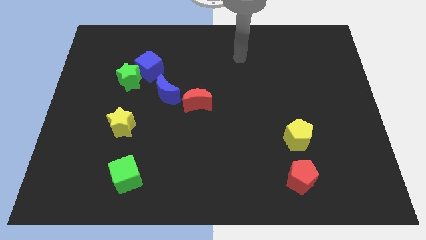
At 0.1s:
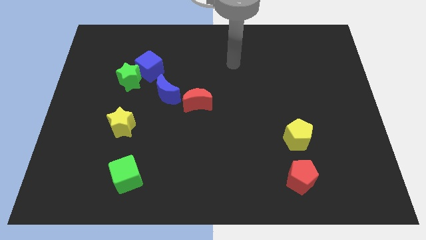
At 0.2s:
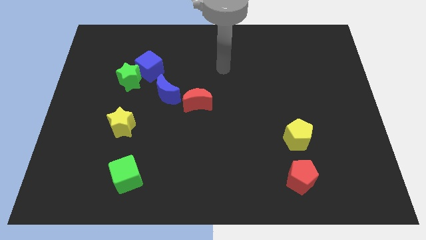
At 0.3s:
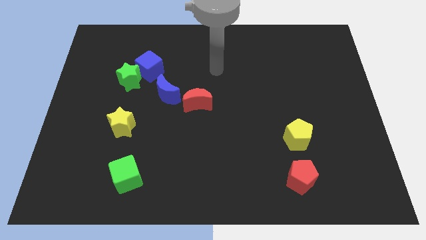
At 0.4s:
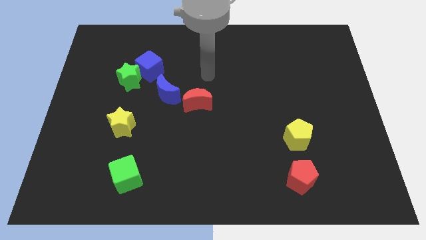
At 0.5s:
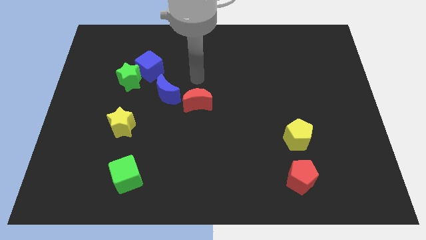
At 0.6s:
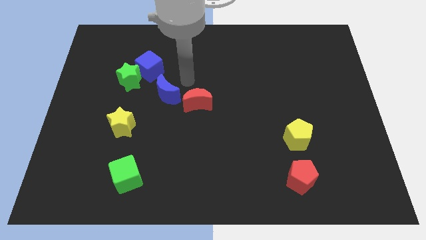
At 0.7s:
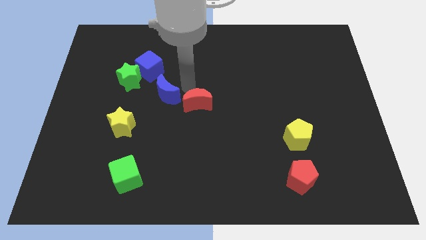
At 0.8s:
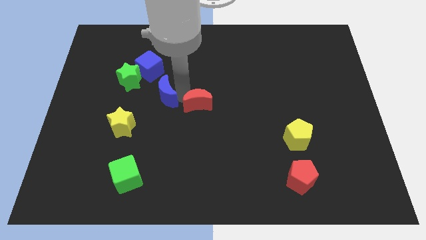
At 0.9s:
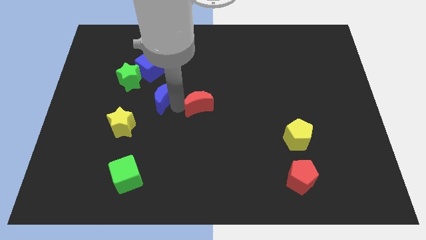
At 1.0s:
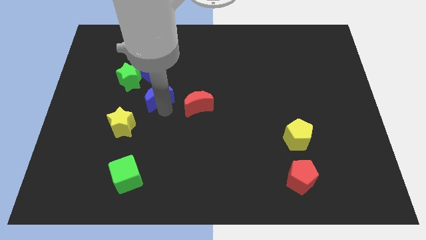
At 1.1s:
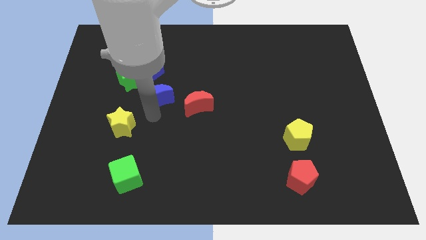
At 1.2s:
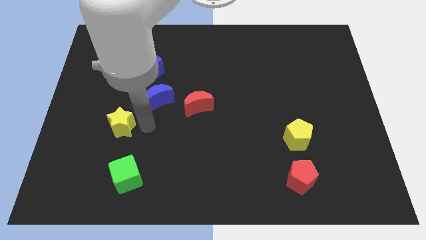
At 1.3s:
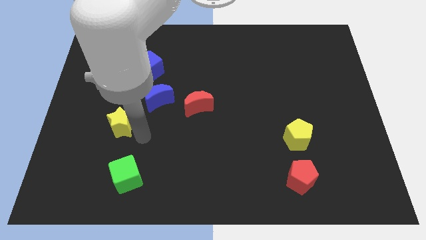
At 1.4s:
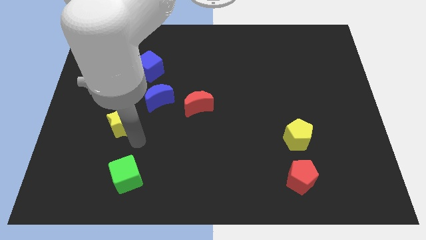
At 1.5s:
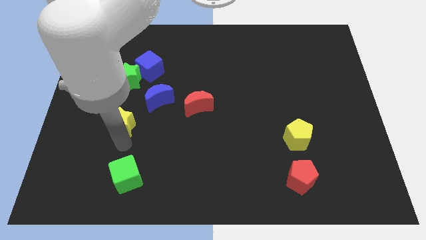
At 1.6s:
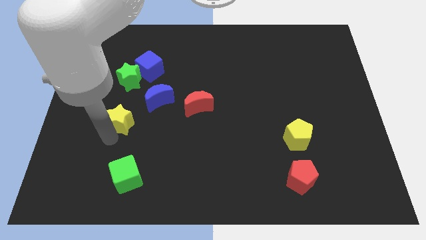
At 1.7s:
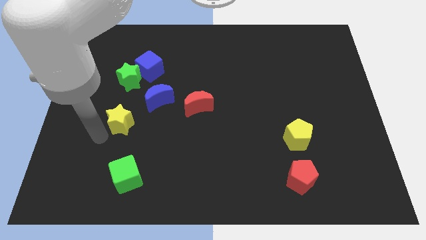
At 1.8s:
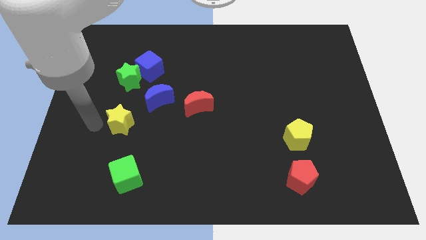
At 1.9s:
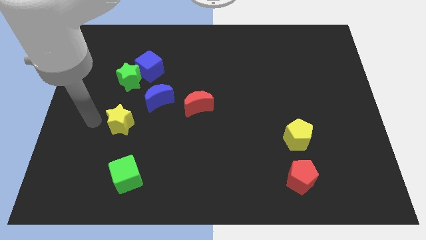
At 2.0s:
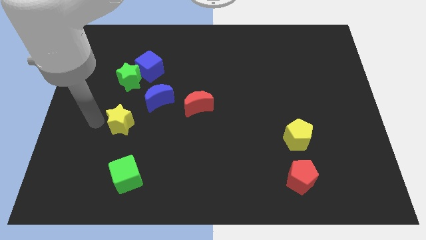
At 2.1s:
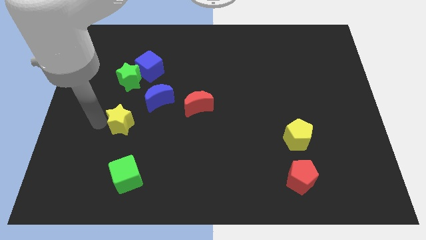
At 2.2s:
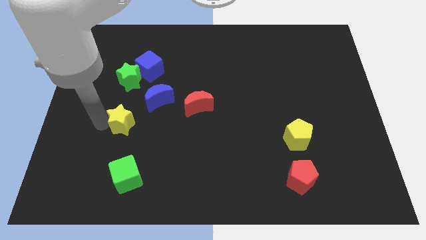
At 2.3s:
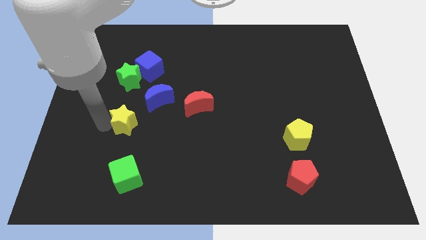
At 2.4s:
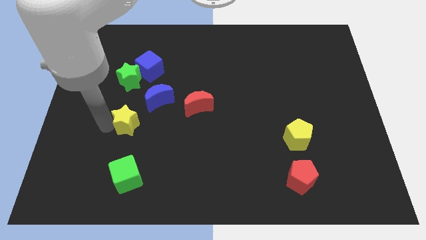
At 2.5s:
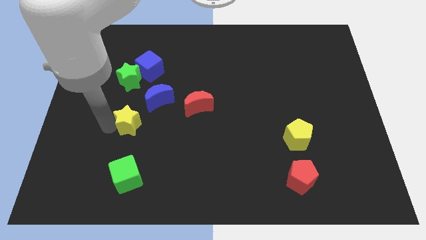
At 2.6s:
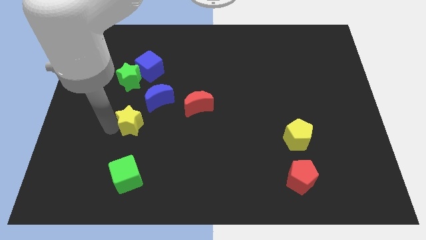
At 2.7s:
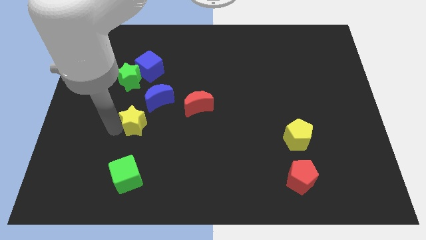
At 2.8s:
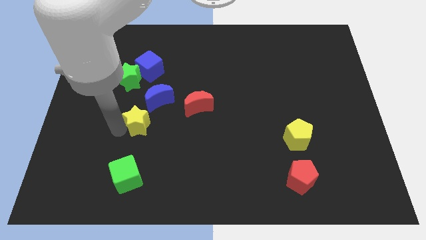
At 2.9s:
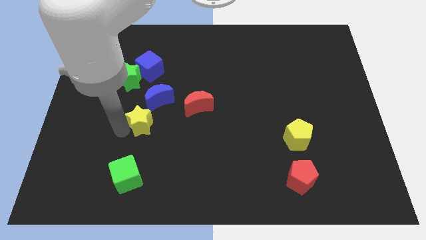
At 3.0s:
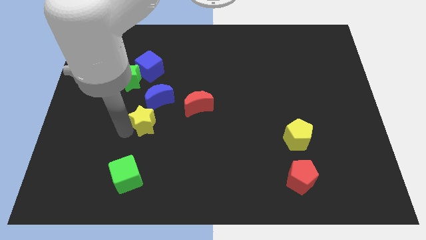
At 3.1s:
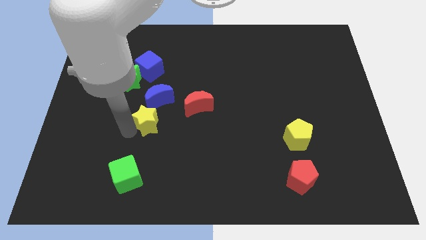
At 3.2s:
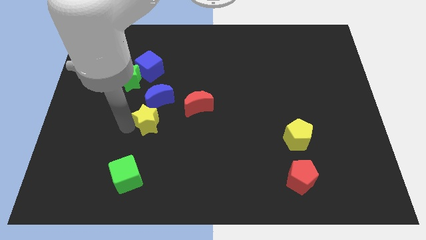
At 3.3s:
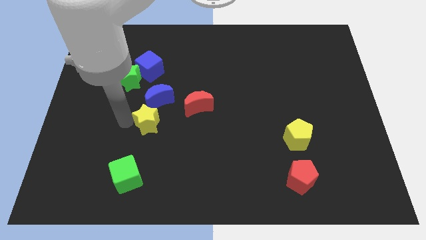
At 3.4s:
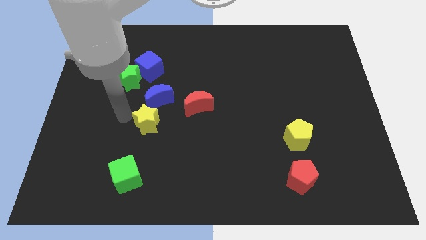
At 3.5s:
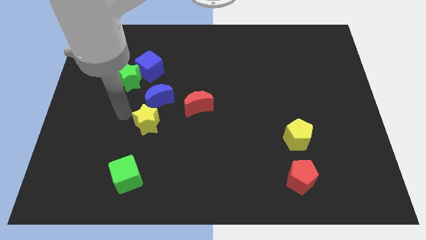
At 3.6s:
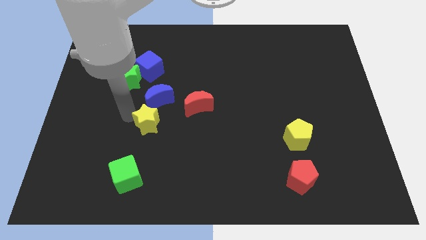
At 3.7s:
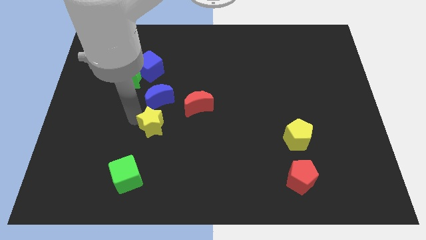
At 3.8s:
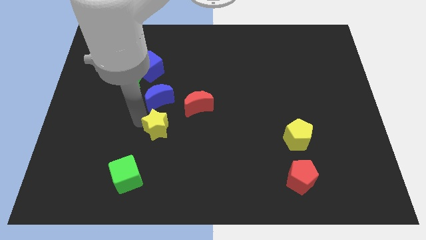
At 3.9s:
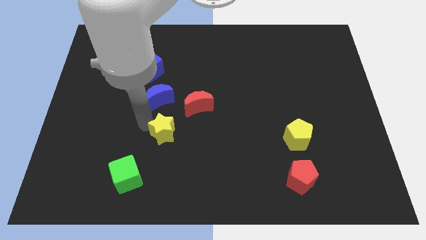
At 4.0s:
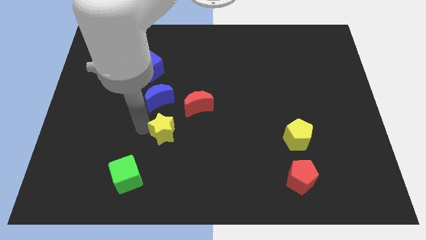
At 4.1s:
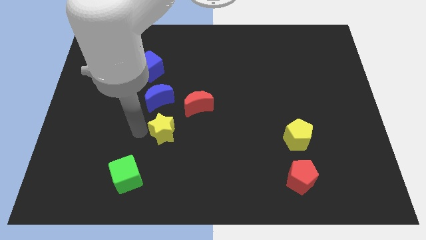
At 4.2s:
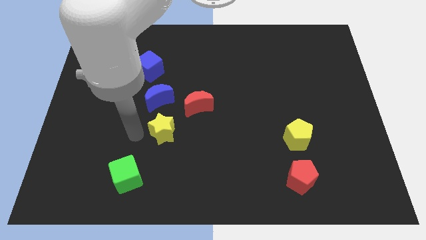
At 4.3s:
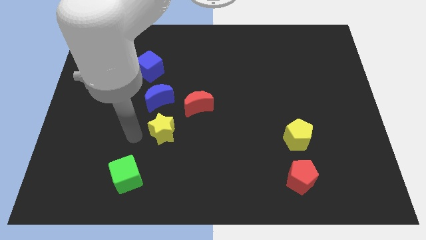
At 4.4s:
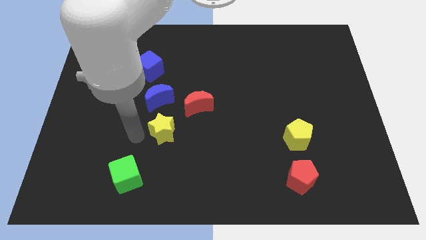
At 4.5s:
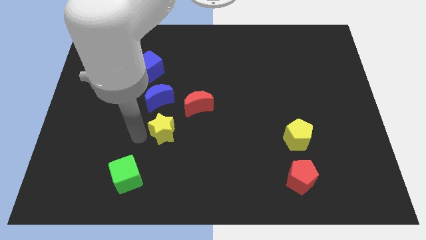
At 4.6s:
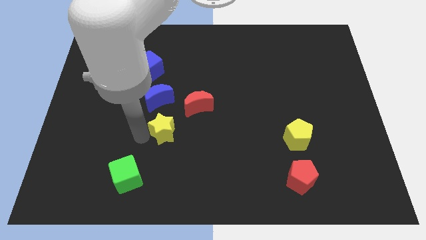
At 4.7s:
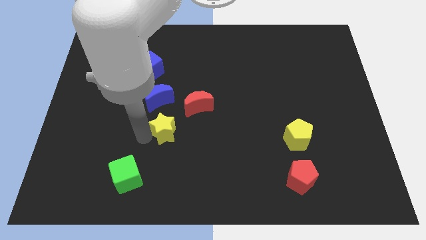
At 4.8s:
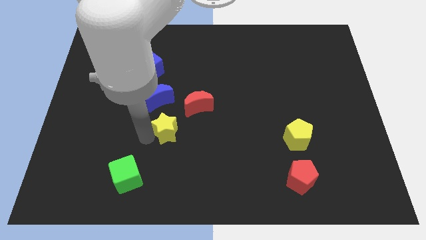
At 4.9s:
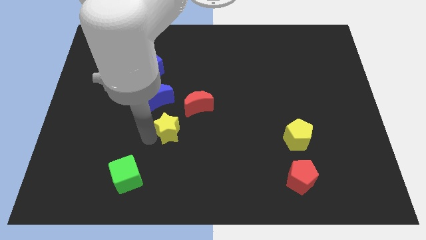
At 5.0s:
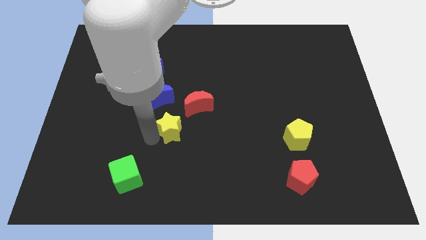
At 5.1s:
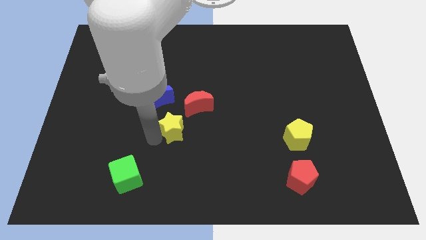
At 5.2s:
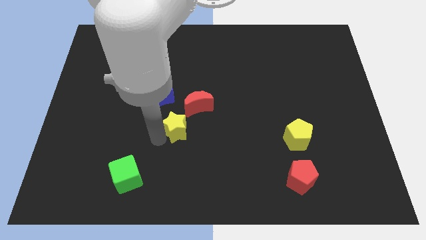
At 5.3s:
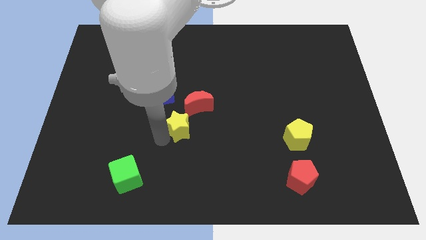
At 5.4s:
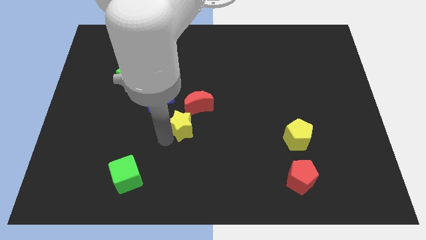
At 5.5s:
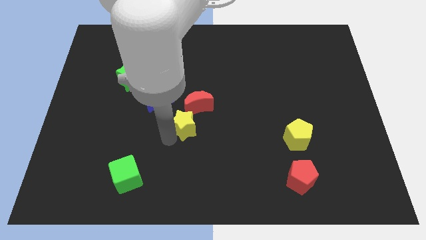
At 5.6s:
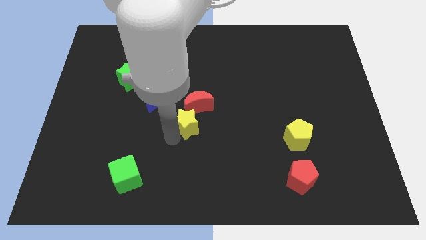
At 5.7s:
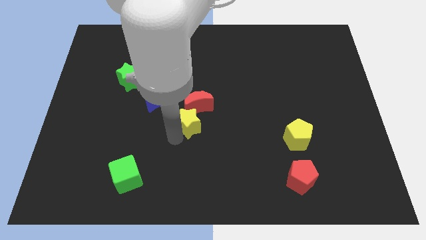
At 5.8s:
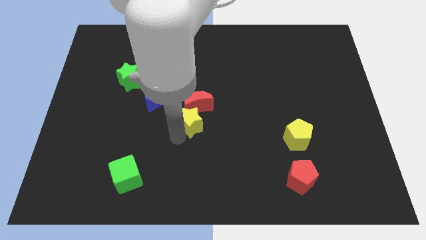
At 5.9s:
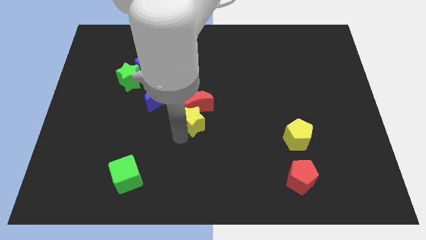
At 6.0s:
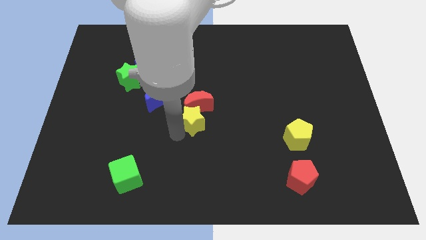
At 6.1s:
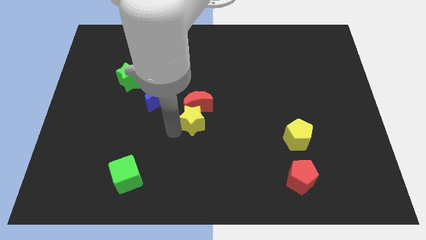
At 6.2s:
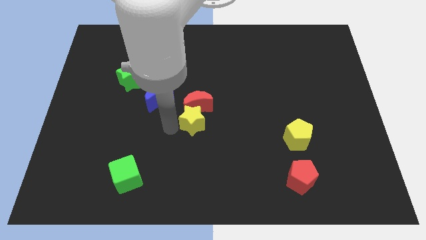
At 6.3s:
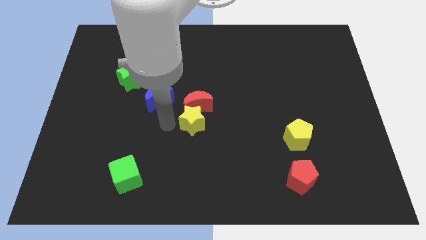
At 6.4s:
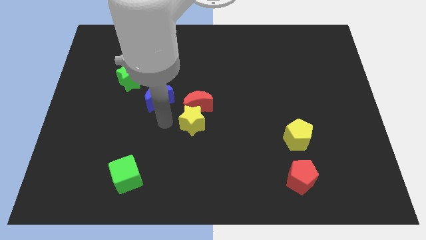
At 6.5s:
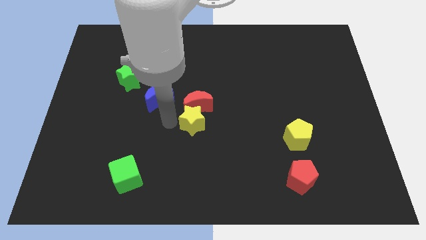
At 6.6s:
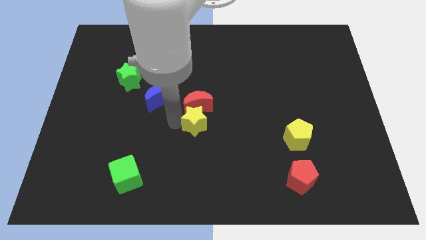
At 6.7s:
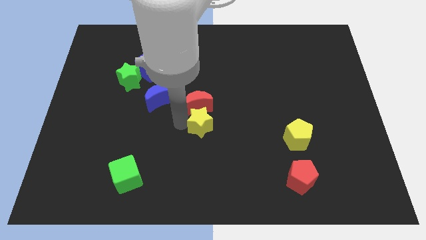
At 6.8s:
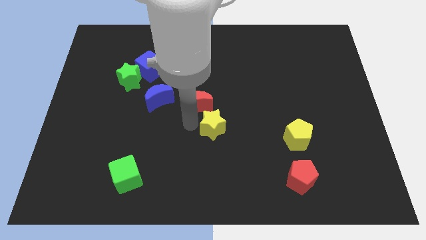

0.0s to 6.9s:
slide the yellow star right

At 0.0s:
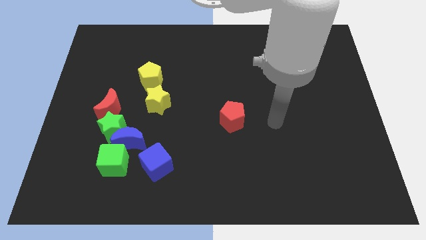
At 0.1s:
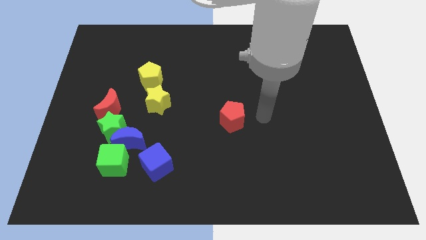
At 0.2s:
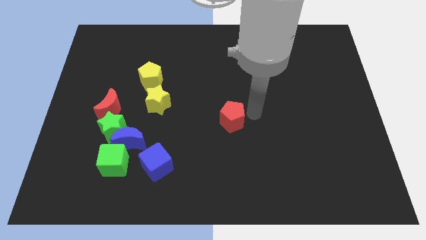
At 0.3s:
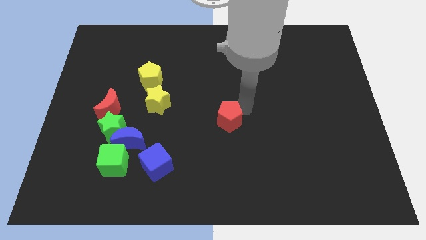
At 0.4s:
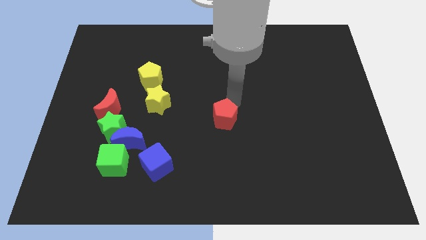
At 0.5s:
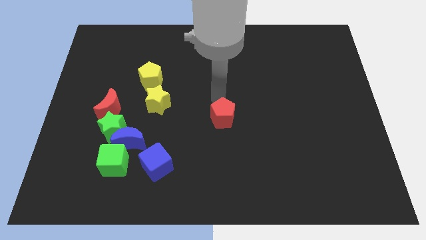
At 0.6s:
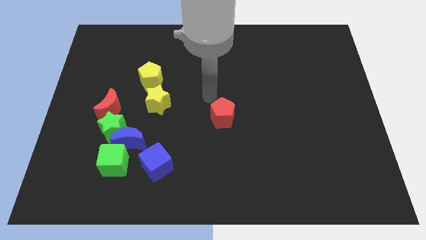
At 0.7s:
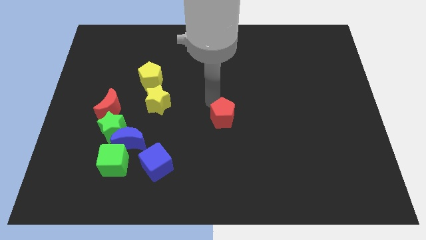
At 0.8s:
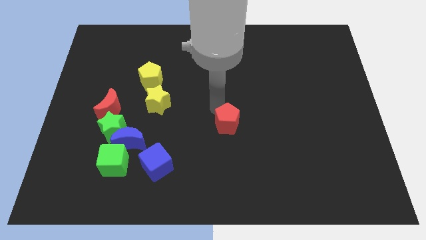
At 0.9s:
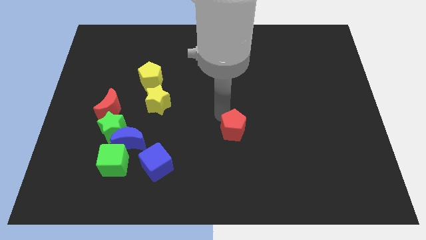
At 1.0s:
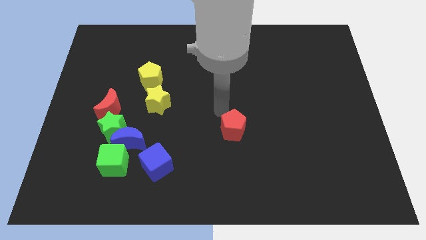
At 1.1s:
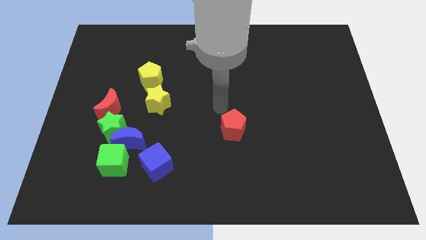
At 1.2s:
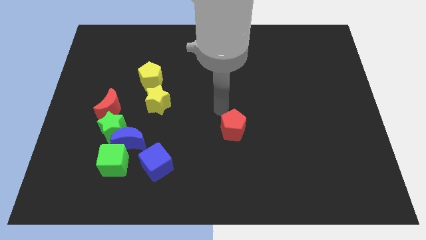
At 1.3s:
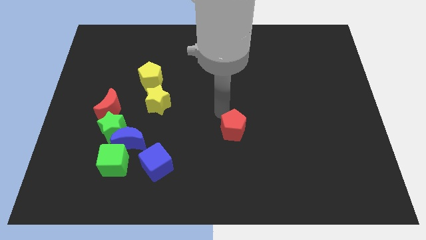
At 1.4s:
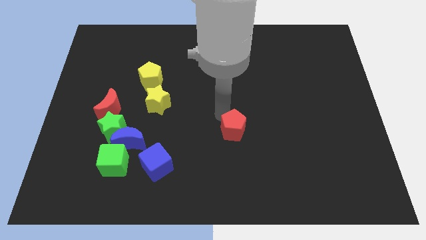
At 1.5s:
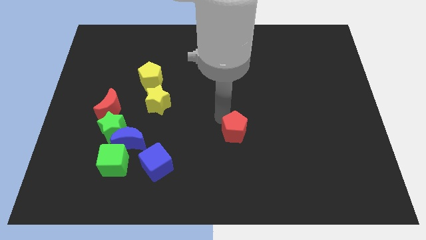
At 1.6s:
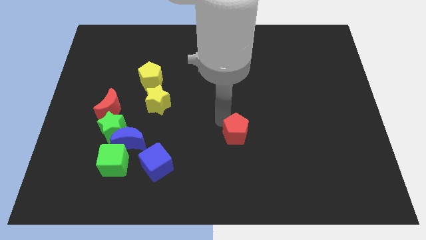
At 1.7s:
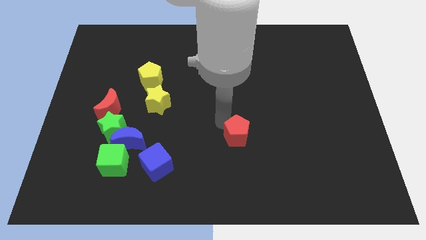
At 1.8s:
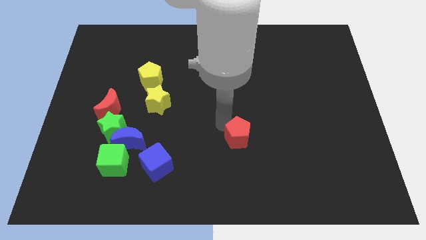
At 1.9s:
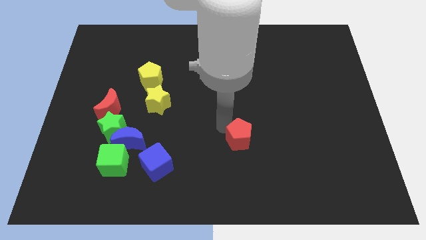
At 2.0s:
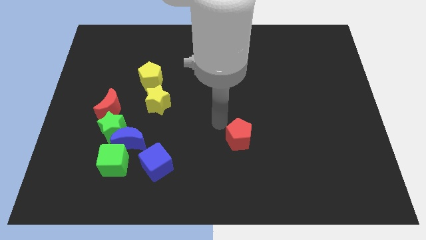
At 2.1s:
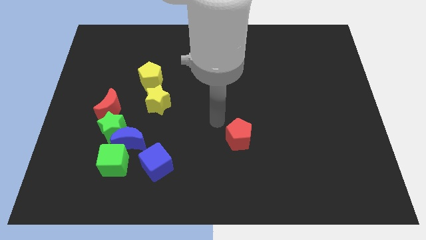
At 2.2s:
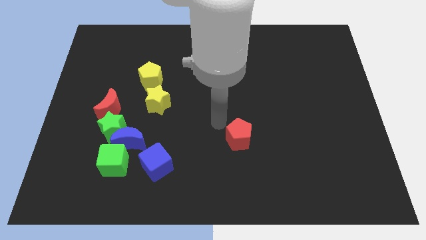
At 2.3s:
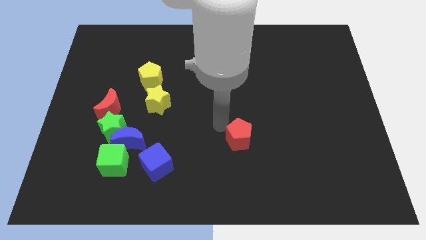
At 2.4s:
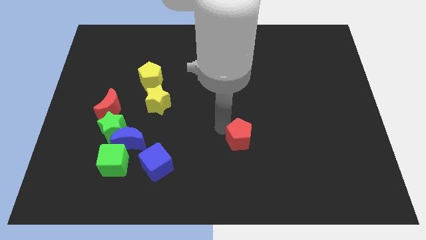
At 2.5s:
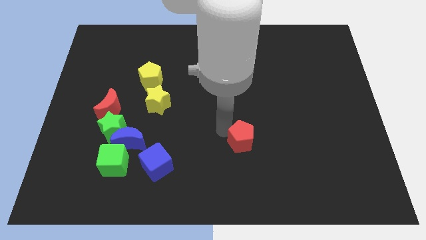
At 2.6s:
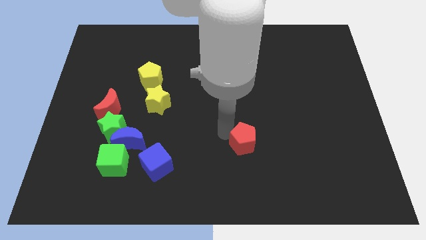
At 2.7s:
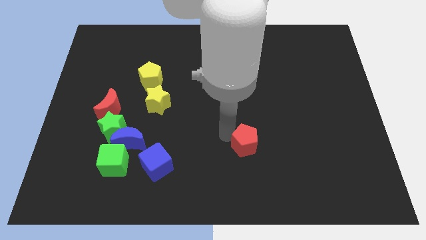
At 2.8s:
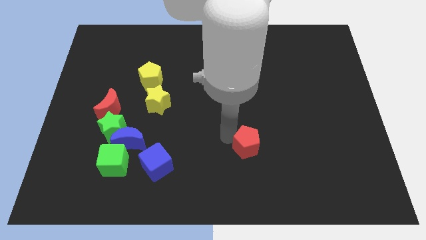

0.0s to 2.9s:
slightly slide the red pentagon down and then right
